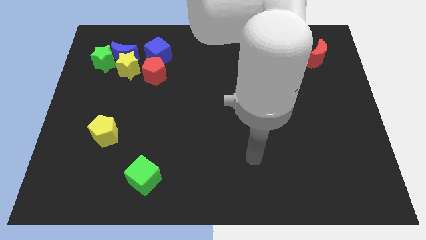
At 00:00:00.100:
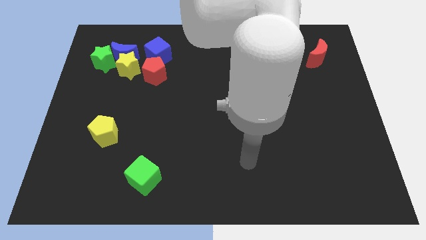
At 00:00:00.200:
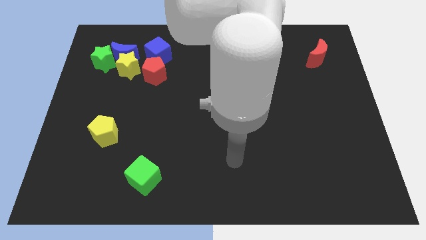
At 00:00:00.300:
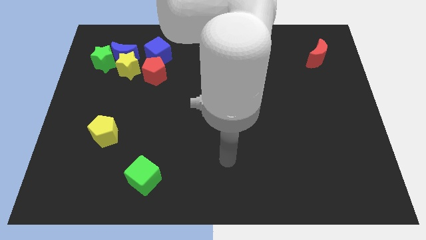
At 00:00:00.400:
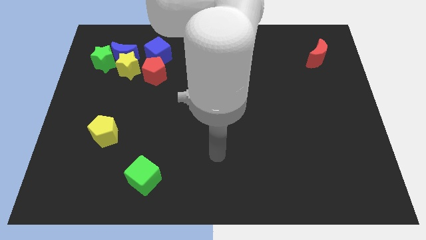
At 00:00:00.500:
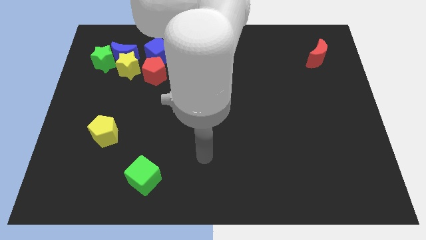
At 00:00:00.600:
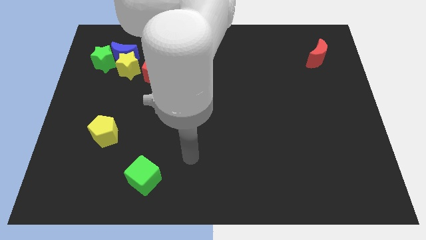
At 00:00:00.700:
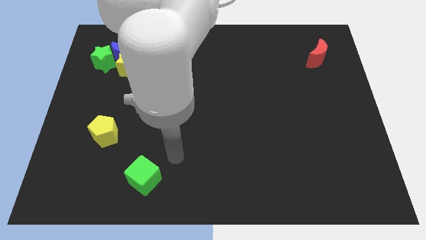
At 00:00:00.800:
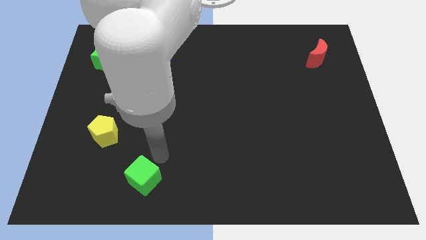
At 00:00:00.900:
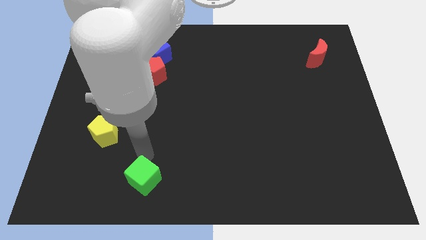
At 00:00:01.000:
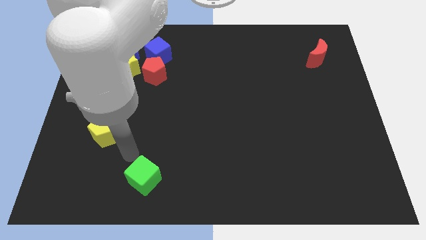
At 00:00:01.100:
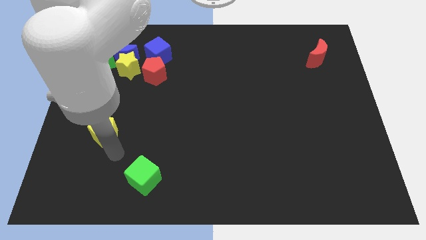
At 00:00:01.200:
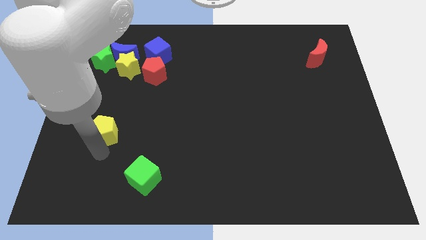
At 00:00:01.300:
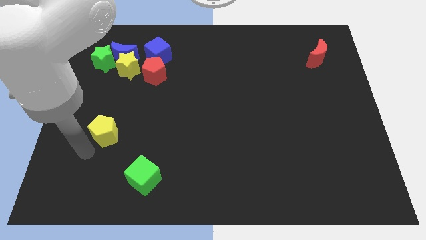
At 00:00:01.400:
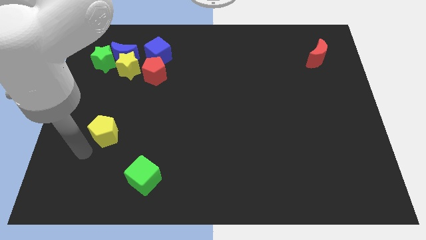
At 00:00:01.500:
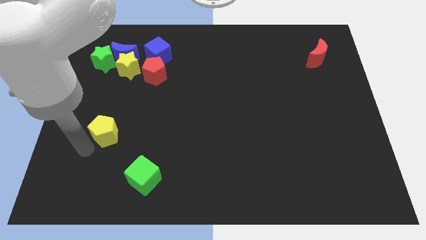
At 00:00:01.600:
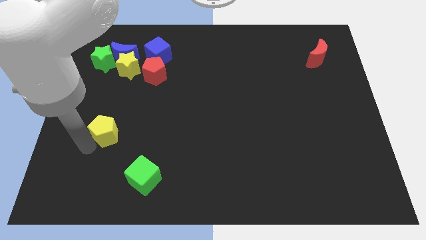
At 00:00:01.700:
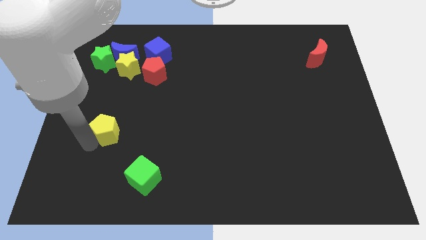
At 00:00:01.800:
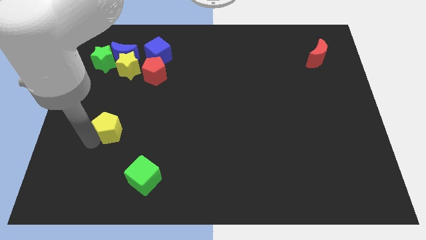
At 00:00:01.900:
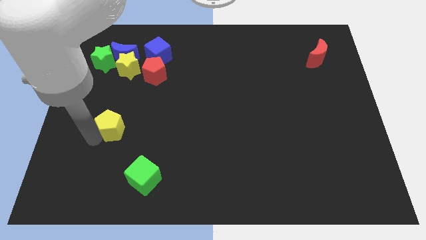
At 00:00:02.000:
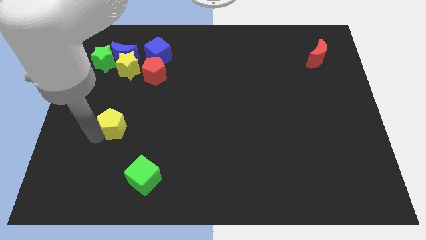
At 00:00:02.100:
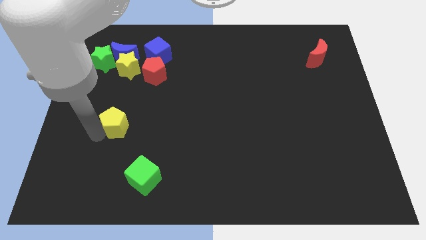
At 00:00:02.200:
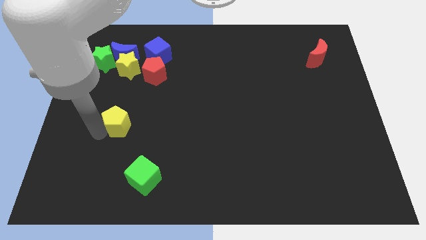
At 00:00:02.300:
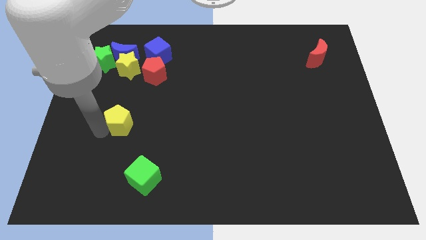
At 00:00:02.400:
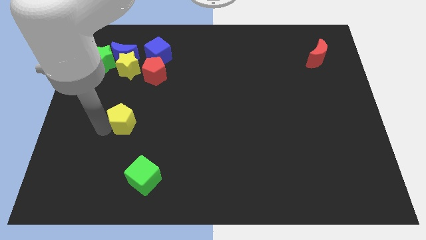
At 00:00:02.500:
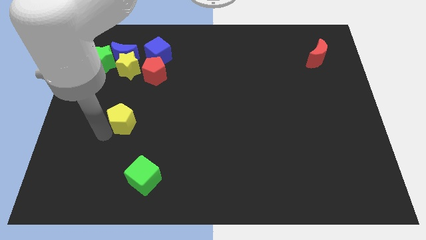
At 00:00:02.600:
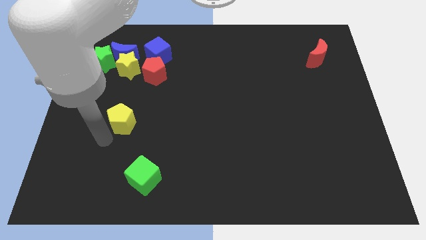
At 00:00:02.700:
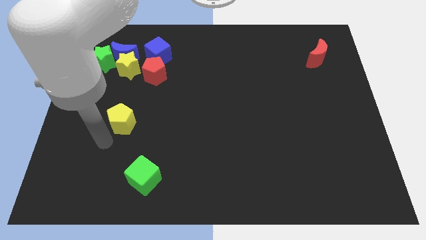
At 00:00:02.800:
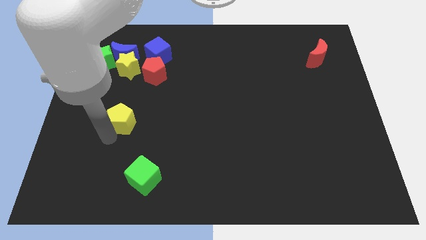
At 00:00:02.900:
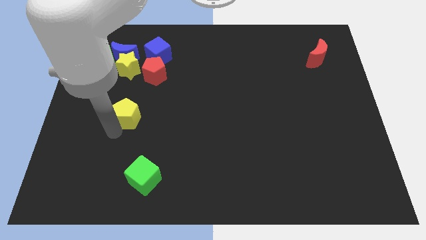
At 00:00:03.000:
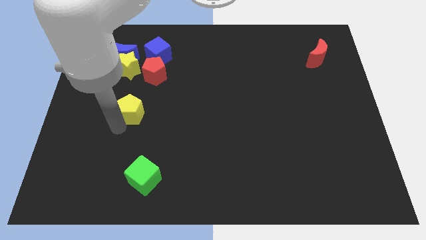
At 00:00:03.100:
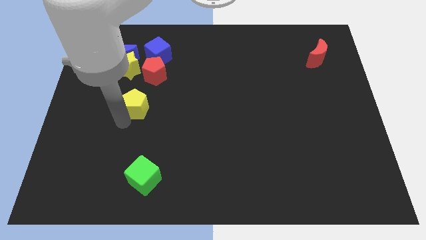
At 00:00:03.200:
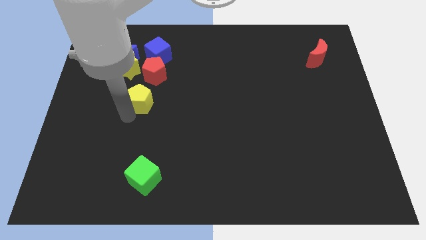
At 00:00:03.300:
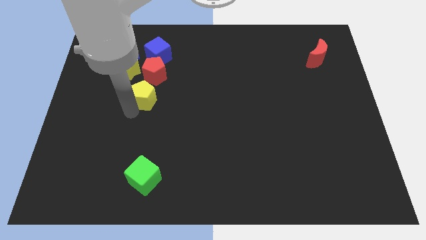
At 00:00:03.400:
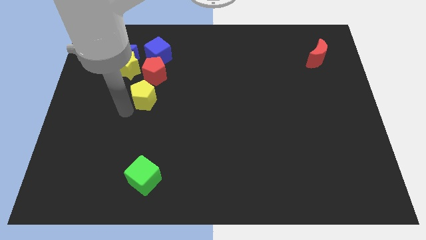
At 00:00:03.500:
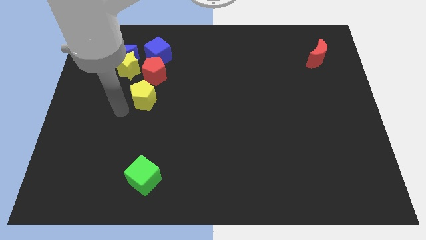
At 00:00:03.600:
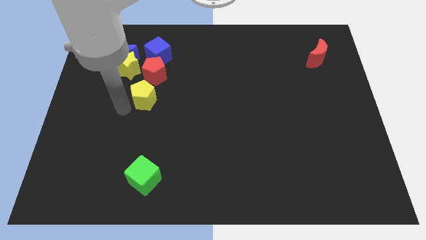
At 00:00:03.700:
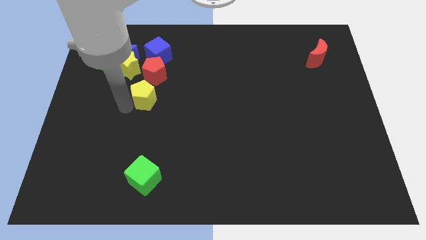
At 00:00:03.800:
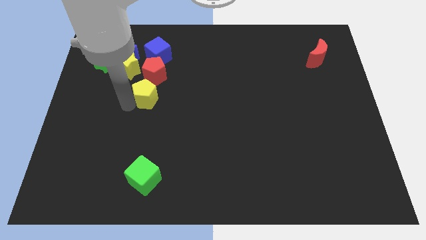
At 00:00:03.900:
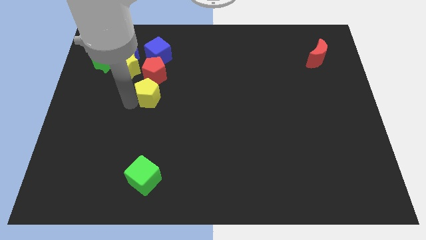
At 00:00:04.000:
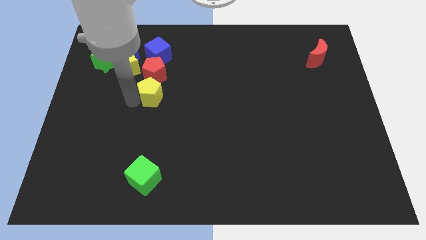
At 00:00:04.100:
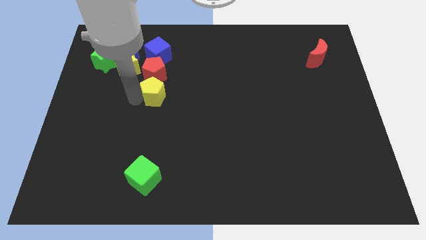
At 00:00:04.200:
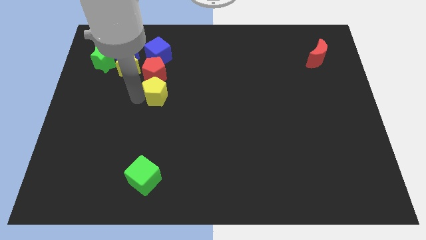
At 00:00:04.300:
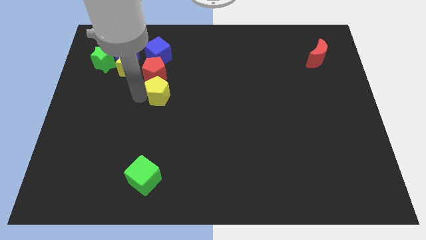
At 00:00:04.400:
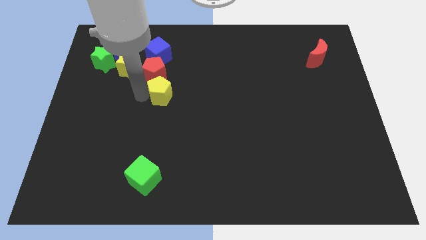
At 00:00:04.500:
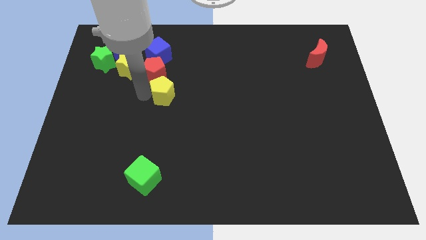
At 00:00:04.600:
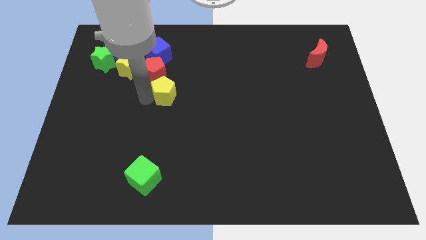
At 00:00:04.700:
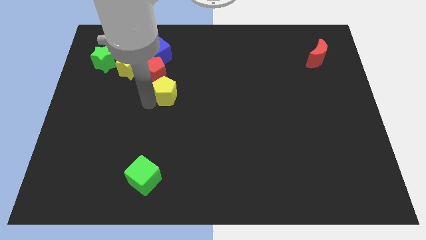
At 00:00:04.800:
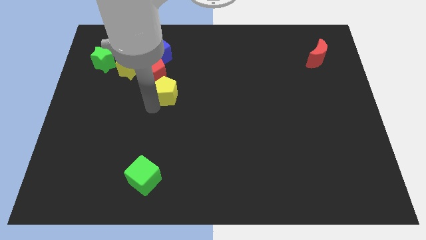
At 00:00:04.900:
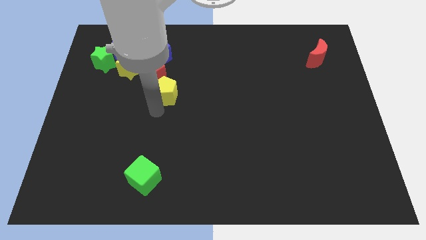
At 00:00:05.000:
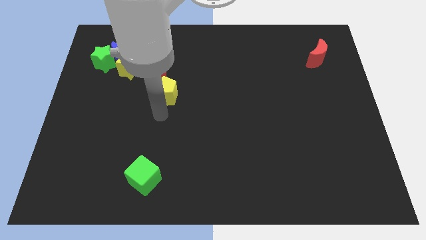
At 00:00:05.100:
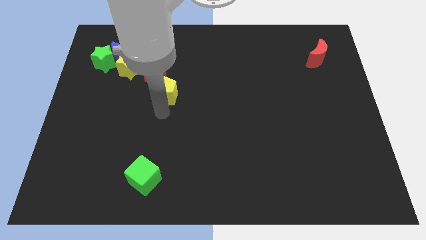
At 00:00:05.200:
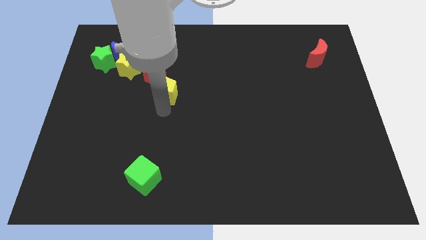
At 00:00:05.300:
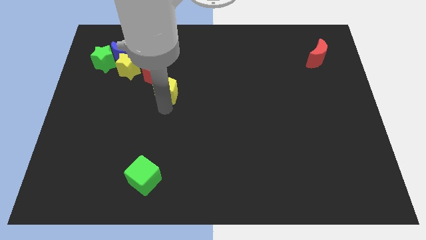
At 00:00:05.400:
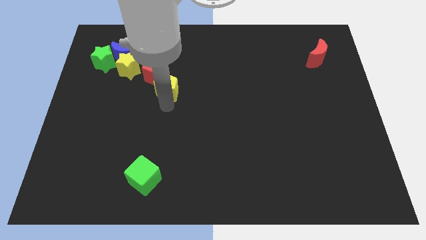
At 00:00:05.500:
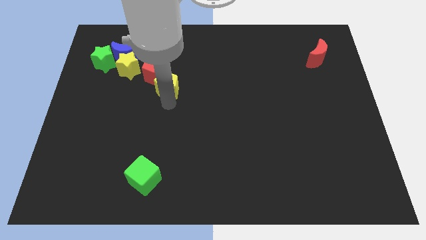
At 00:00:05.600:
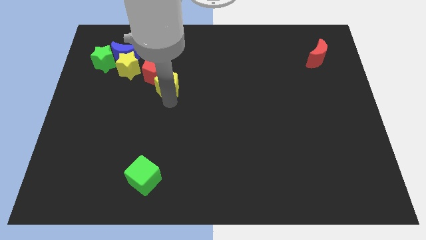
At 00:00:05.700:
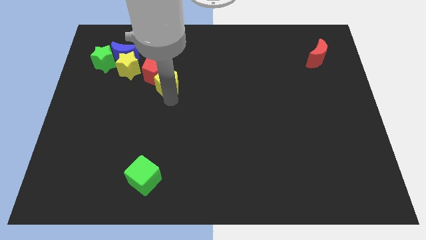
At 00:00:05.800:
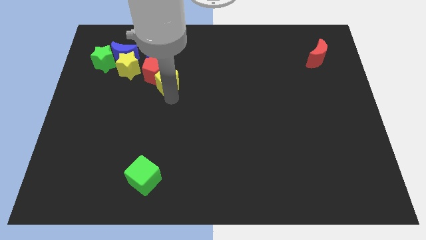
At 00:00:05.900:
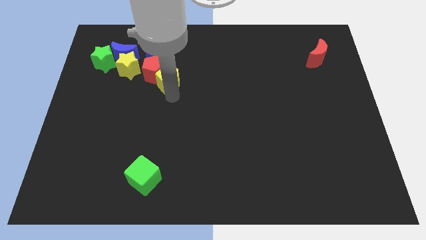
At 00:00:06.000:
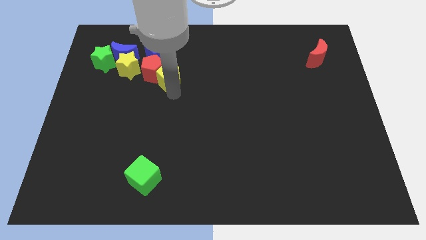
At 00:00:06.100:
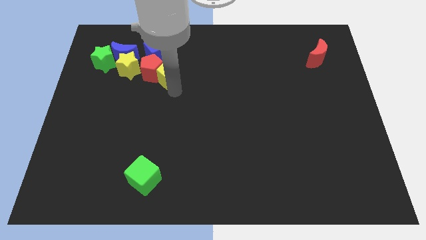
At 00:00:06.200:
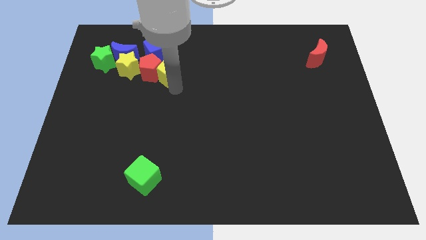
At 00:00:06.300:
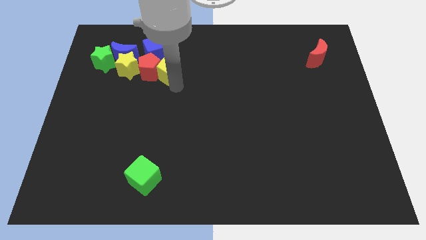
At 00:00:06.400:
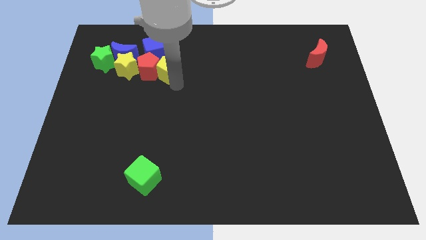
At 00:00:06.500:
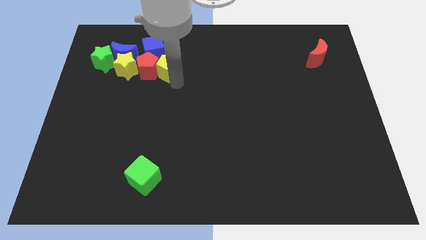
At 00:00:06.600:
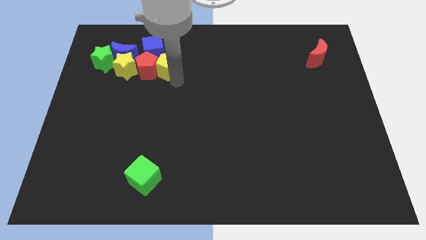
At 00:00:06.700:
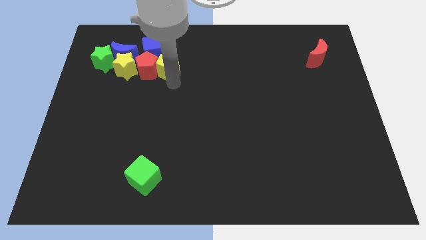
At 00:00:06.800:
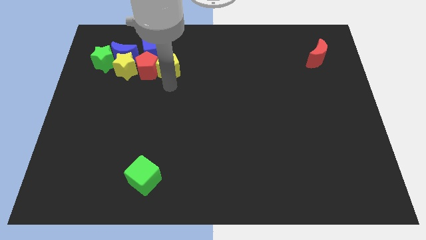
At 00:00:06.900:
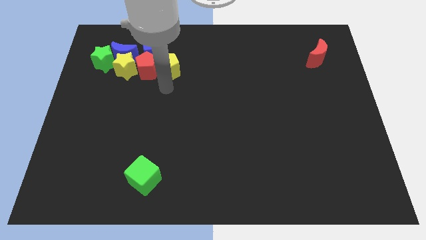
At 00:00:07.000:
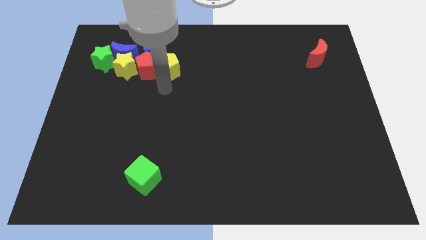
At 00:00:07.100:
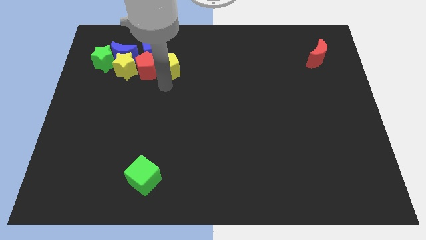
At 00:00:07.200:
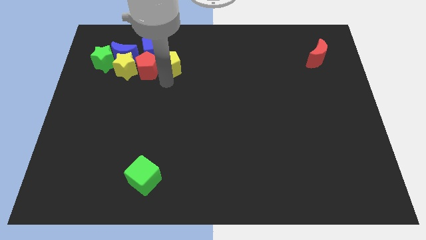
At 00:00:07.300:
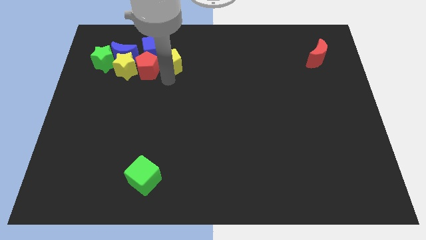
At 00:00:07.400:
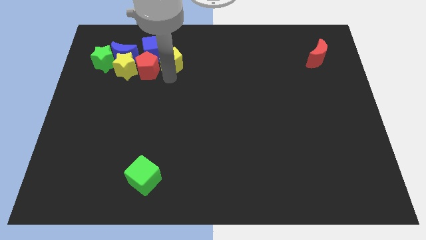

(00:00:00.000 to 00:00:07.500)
put the yellow pentagon towards the blue cube
